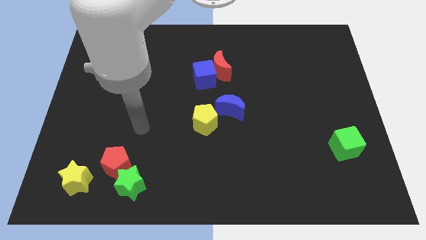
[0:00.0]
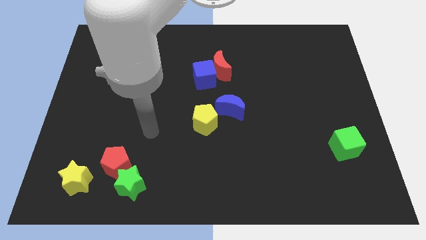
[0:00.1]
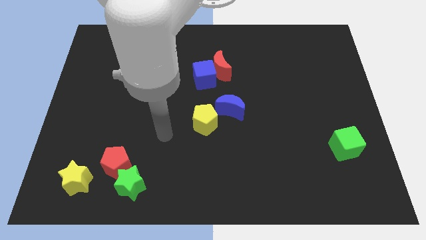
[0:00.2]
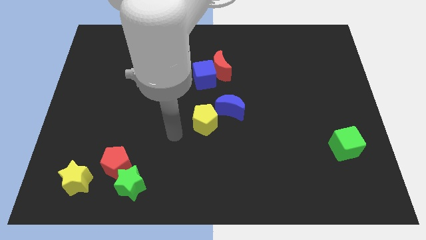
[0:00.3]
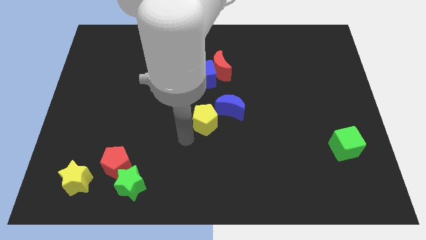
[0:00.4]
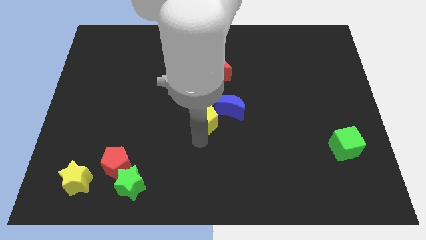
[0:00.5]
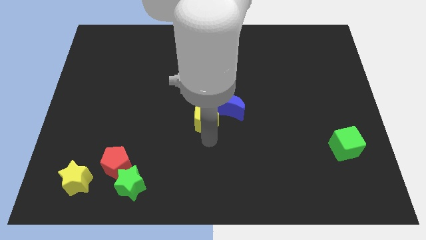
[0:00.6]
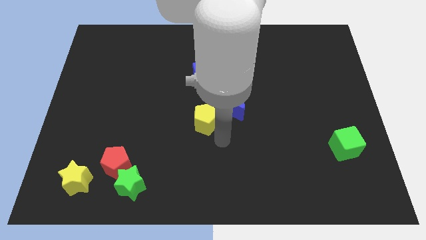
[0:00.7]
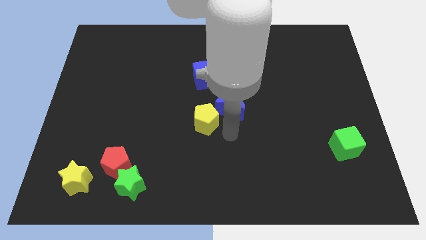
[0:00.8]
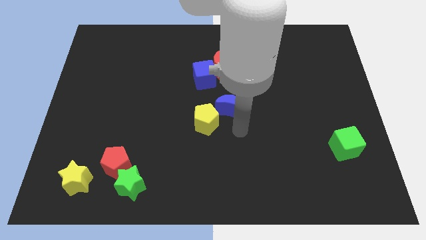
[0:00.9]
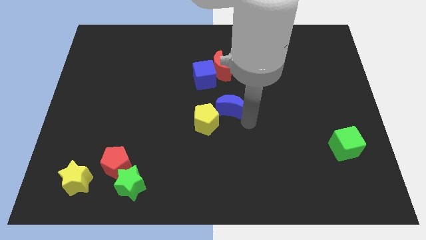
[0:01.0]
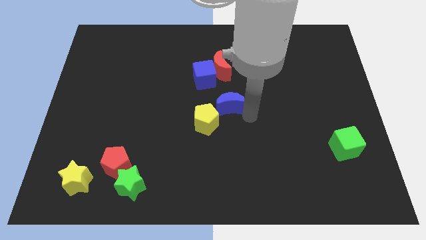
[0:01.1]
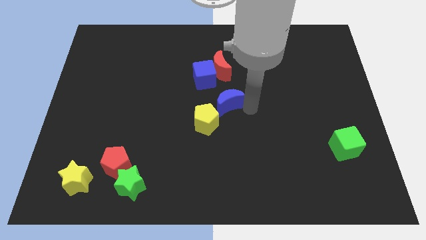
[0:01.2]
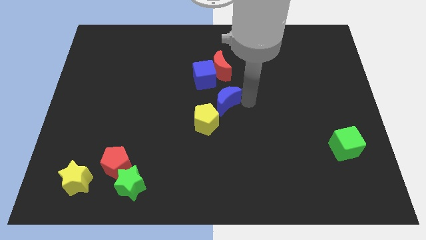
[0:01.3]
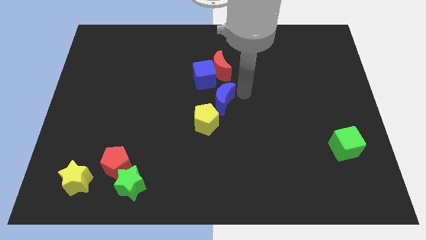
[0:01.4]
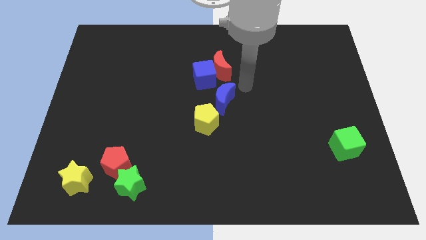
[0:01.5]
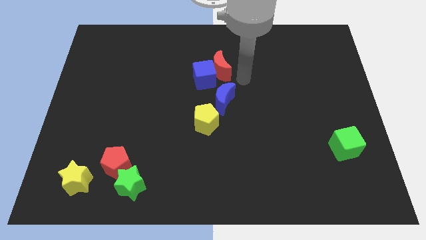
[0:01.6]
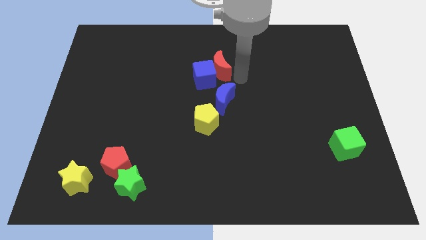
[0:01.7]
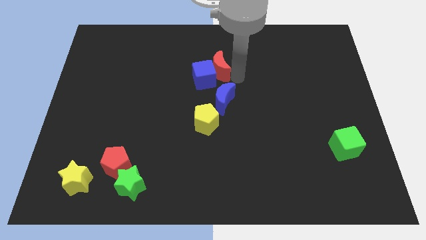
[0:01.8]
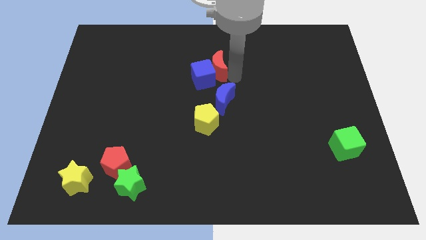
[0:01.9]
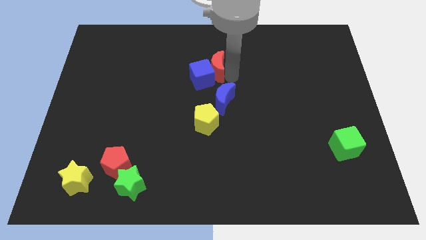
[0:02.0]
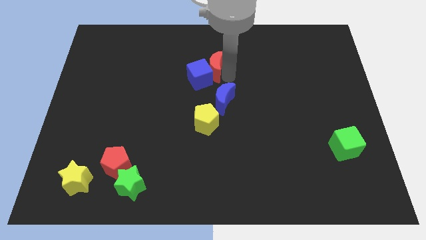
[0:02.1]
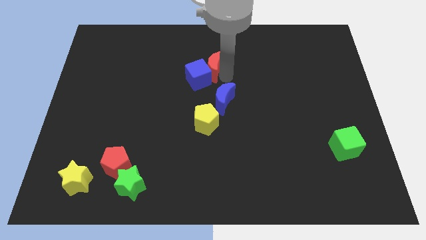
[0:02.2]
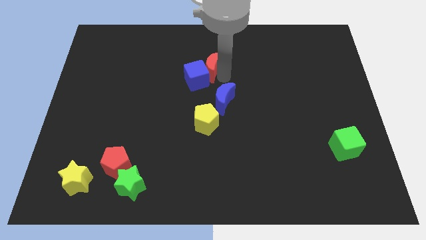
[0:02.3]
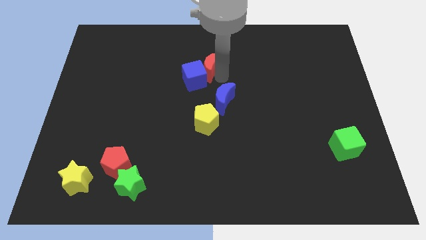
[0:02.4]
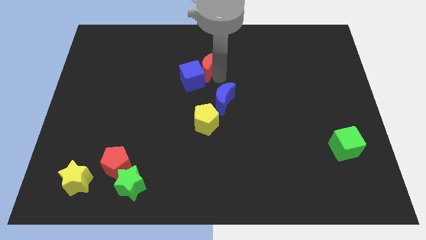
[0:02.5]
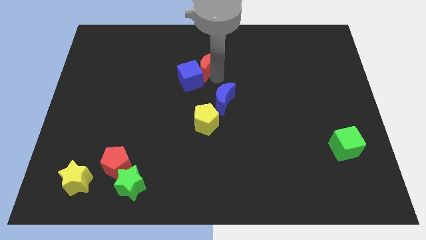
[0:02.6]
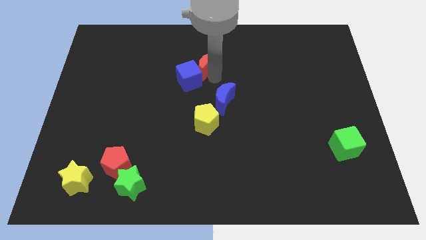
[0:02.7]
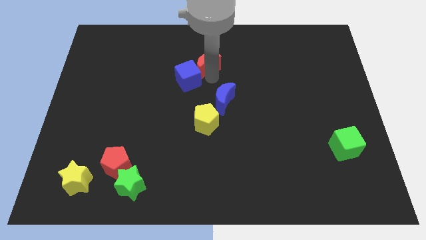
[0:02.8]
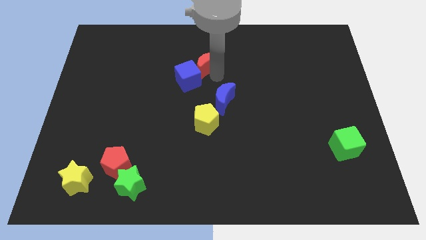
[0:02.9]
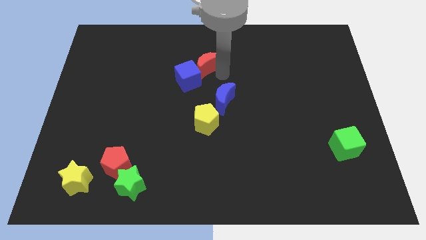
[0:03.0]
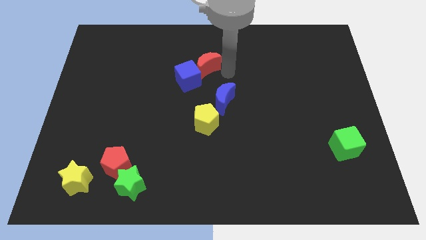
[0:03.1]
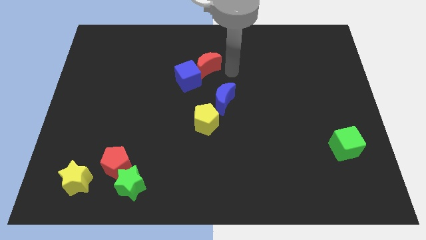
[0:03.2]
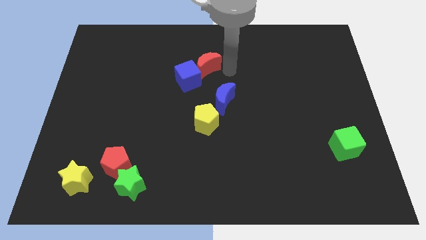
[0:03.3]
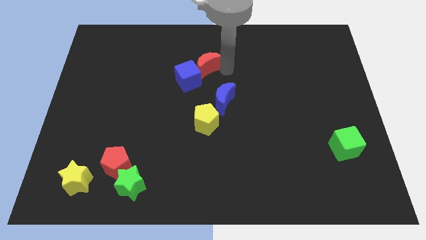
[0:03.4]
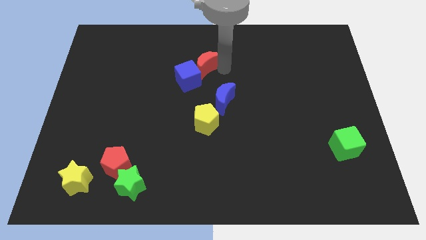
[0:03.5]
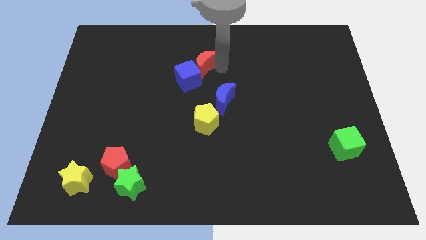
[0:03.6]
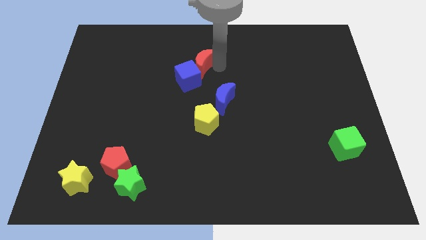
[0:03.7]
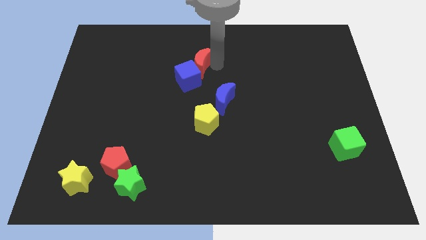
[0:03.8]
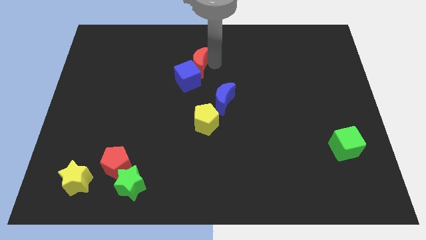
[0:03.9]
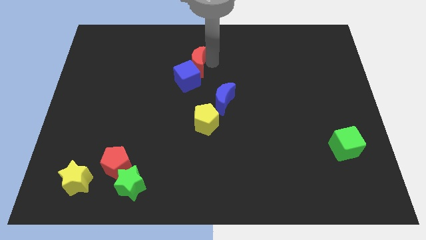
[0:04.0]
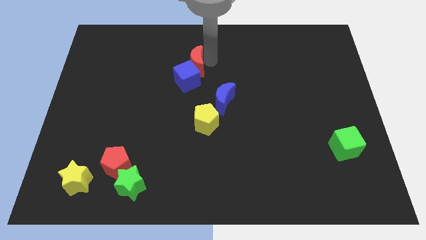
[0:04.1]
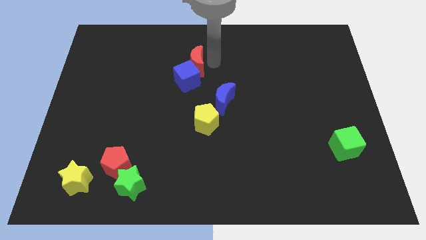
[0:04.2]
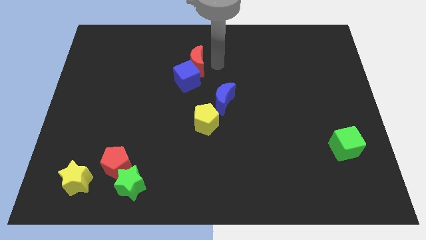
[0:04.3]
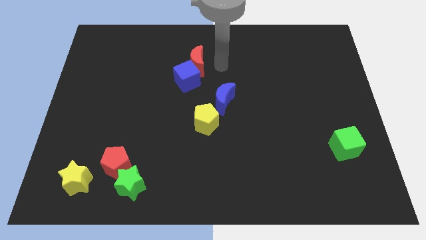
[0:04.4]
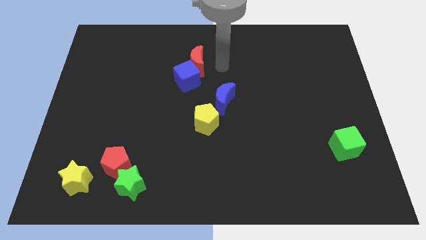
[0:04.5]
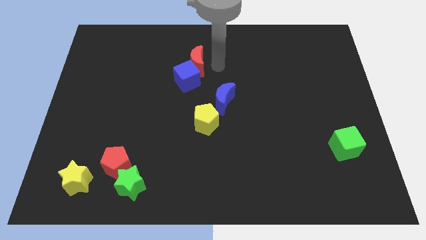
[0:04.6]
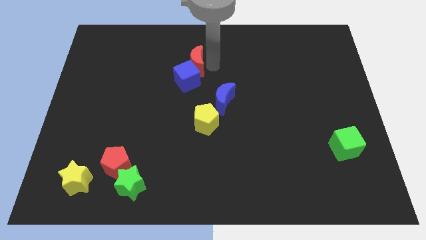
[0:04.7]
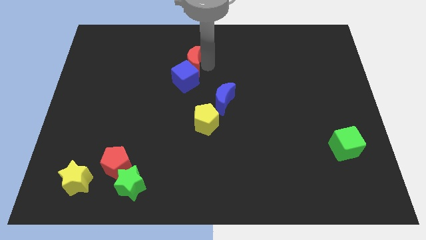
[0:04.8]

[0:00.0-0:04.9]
slightly slide the red moon left

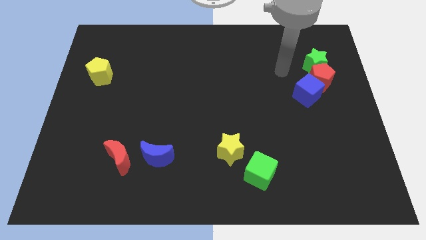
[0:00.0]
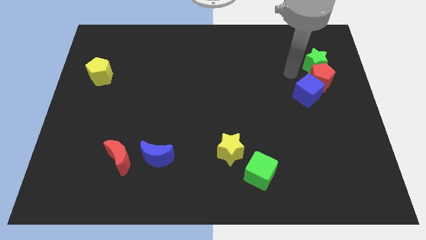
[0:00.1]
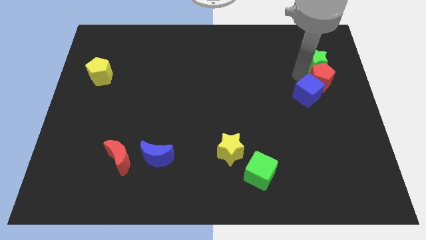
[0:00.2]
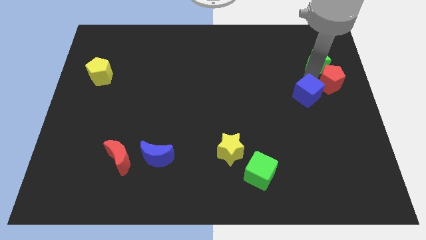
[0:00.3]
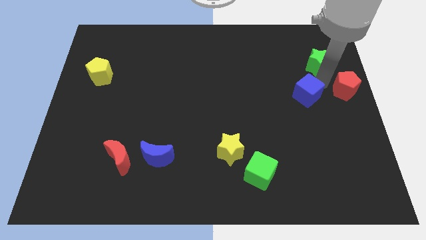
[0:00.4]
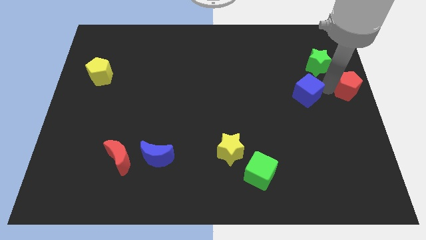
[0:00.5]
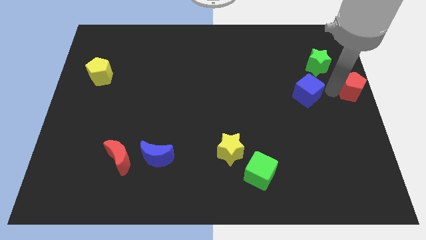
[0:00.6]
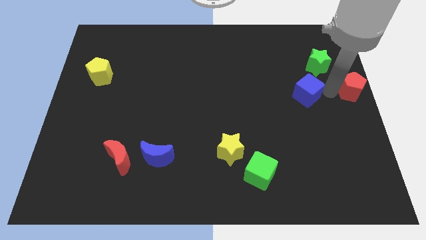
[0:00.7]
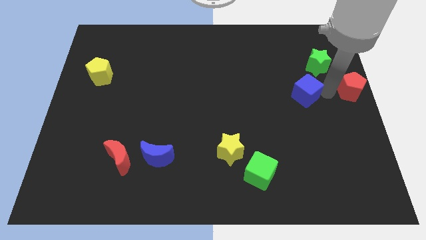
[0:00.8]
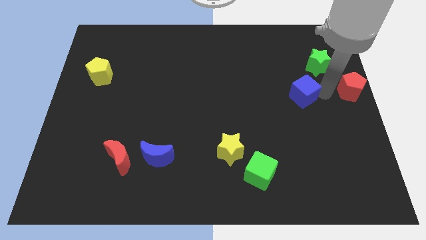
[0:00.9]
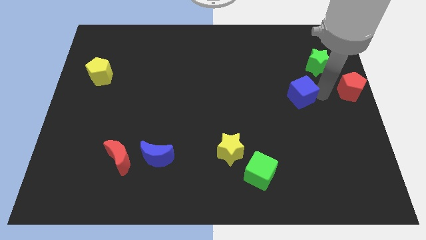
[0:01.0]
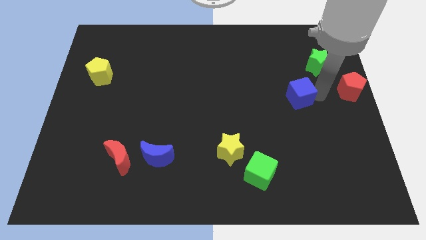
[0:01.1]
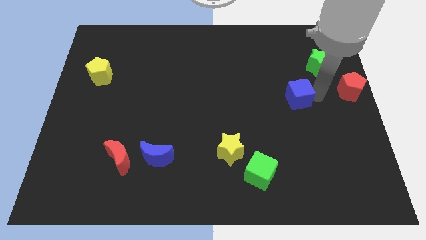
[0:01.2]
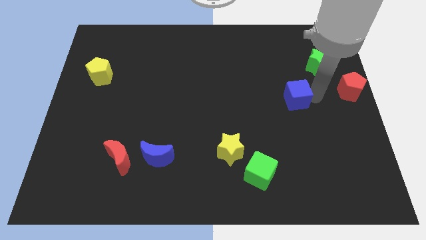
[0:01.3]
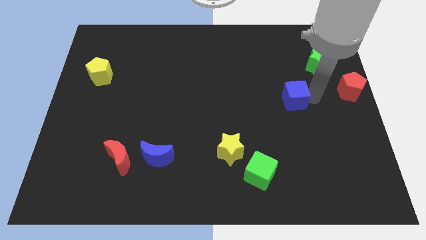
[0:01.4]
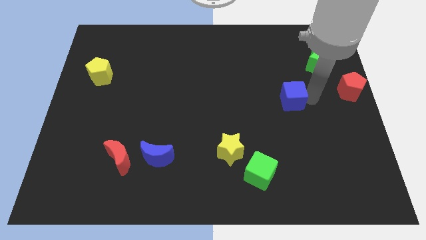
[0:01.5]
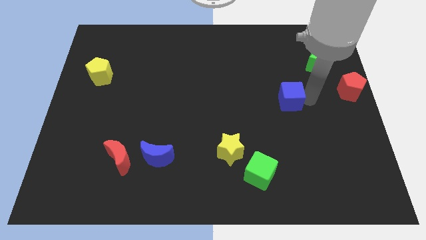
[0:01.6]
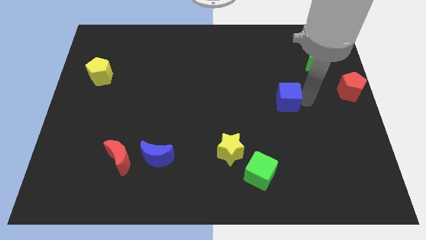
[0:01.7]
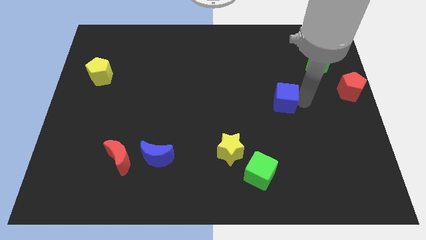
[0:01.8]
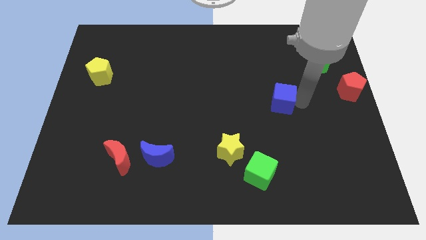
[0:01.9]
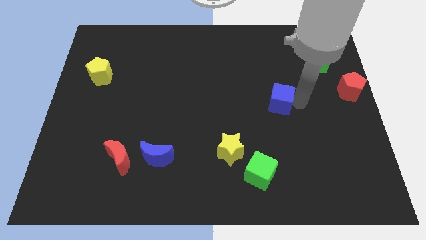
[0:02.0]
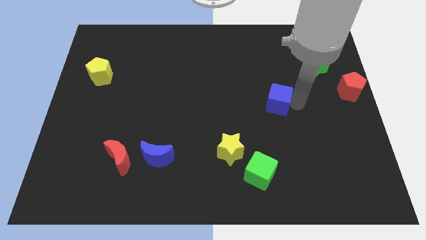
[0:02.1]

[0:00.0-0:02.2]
move the blue cube slightly left

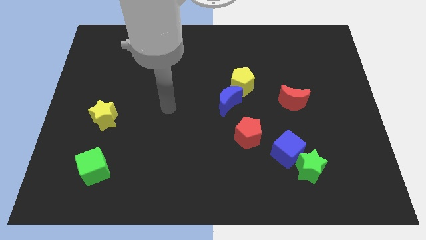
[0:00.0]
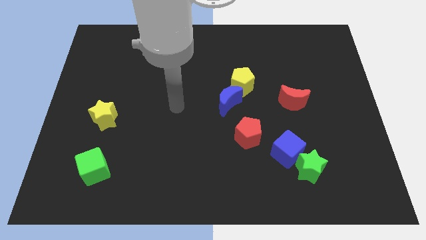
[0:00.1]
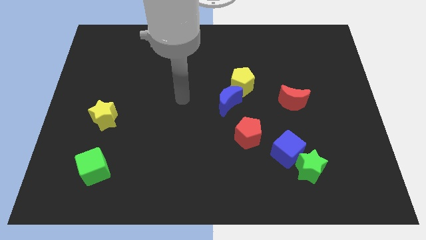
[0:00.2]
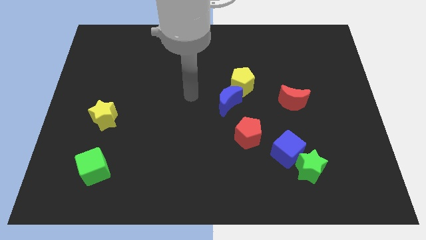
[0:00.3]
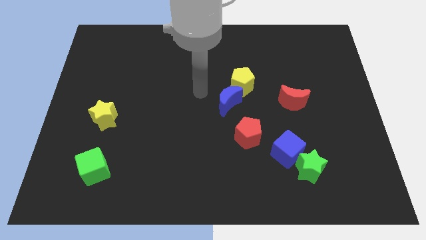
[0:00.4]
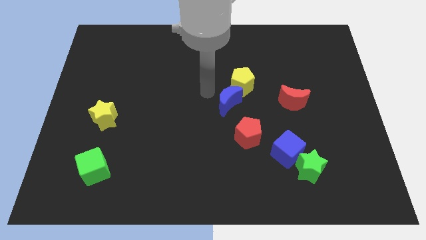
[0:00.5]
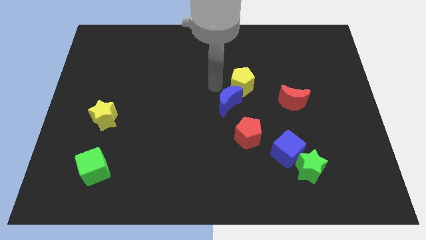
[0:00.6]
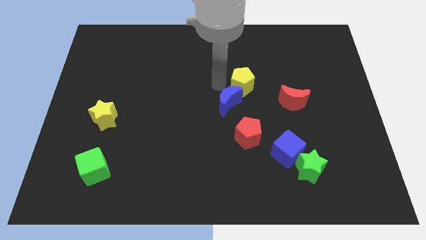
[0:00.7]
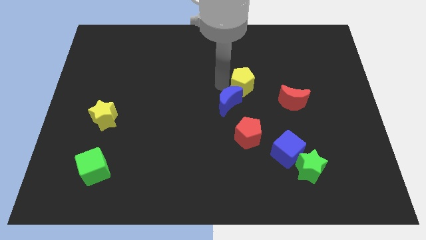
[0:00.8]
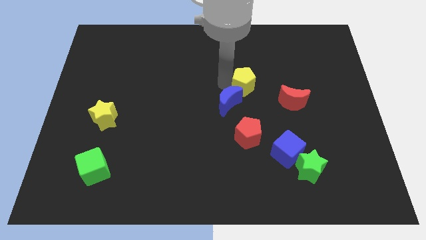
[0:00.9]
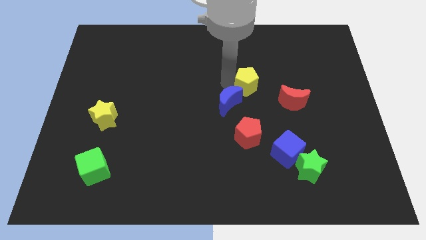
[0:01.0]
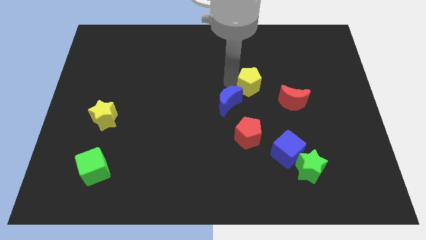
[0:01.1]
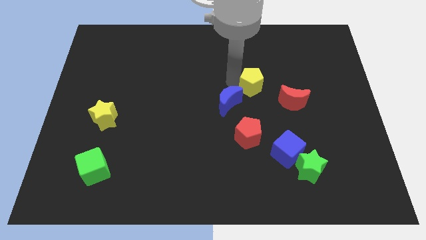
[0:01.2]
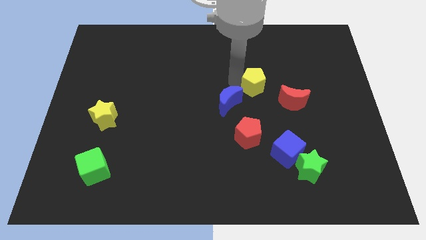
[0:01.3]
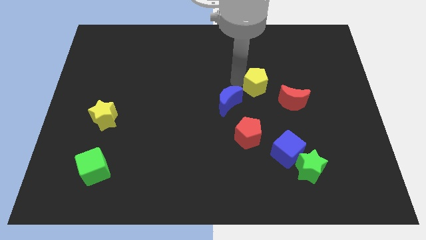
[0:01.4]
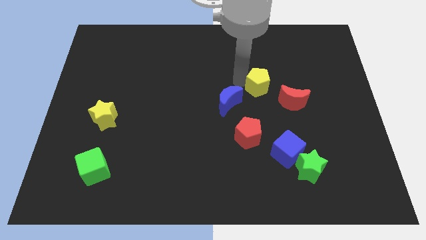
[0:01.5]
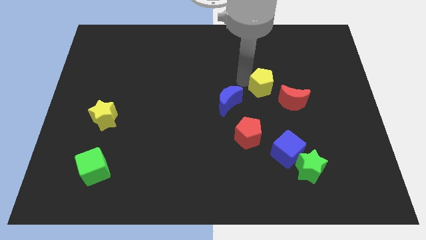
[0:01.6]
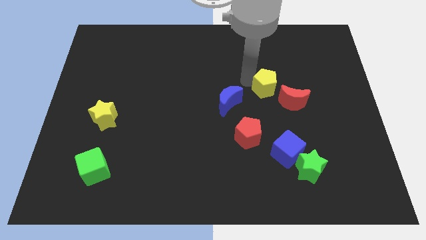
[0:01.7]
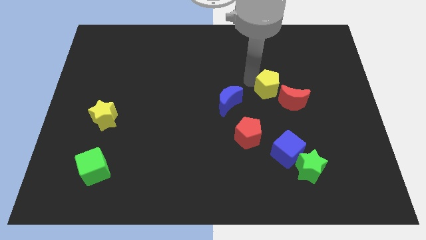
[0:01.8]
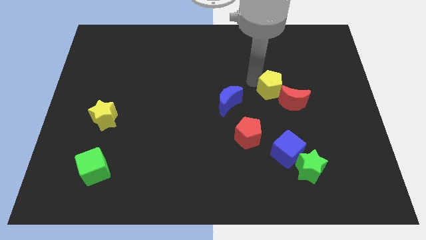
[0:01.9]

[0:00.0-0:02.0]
move the yellow pentagon to the right slightly
